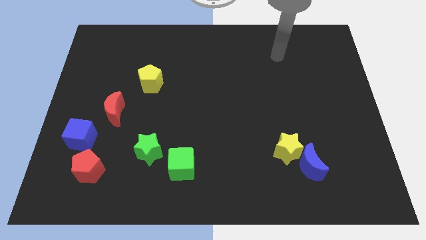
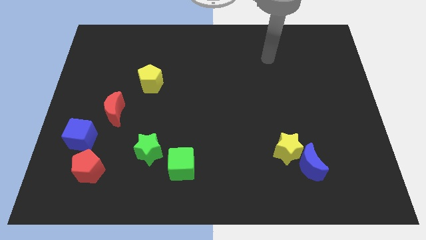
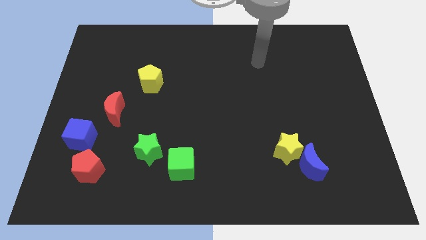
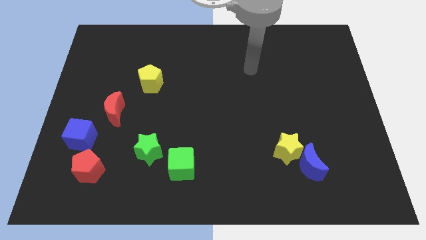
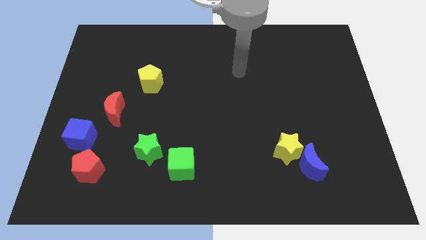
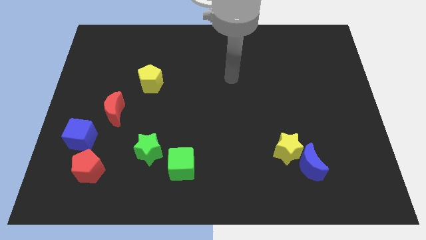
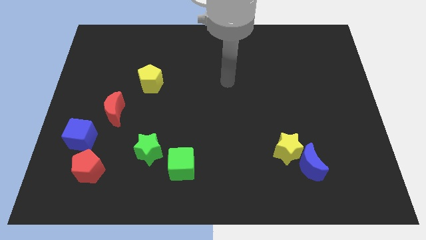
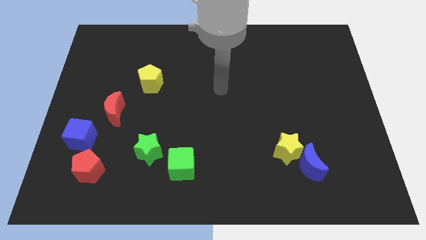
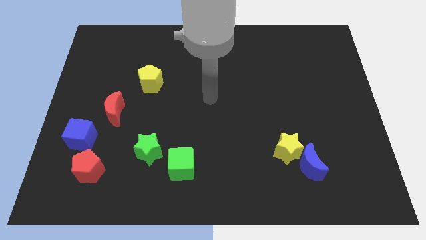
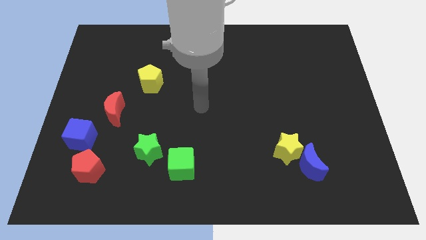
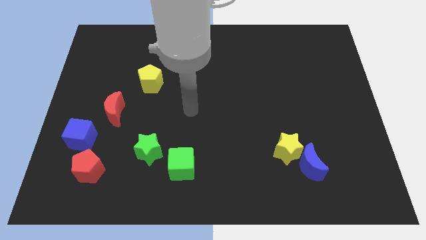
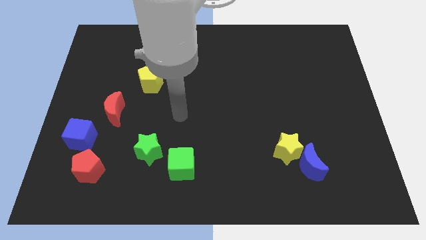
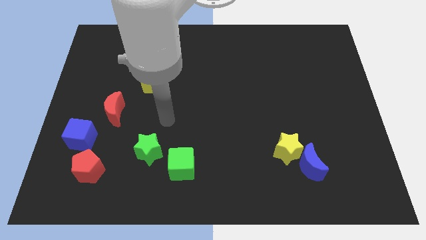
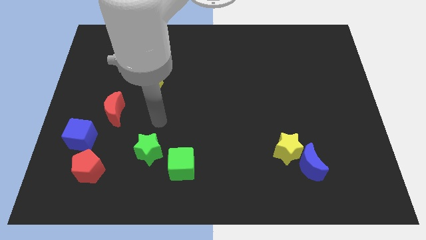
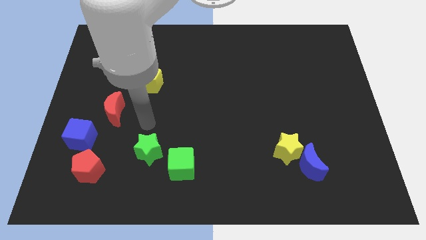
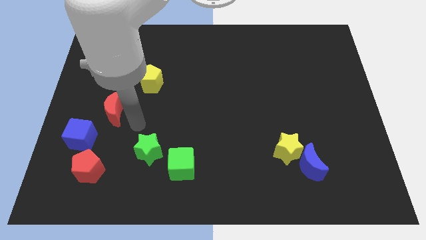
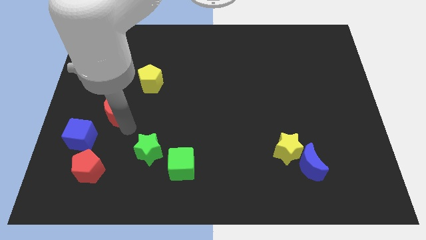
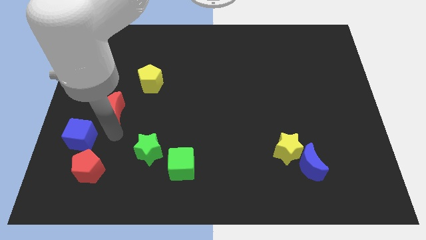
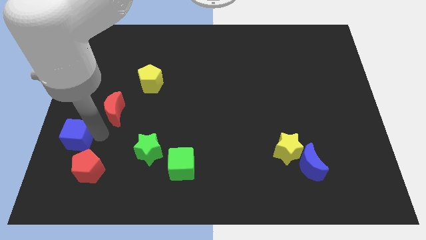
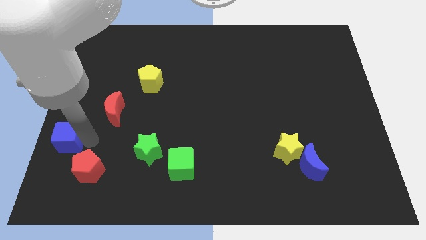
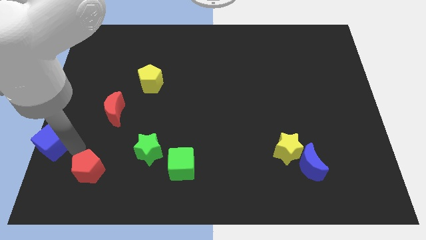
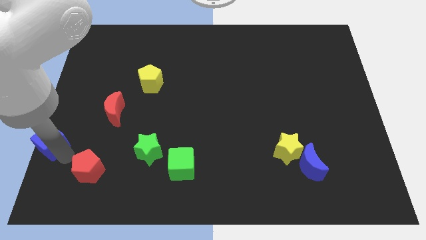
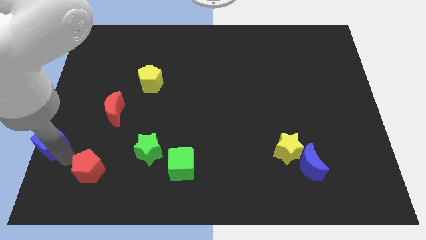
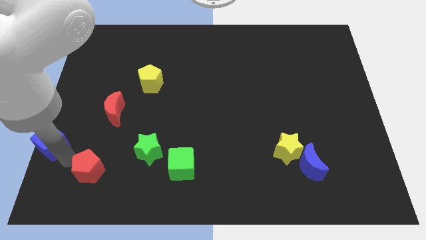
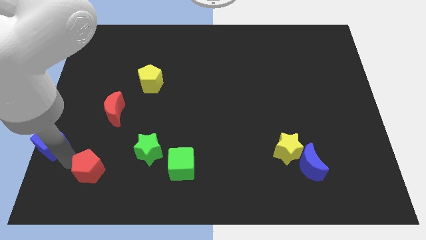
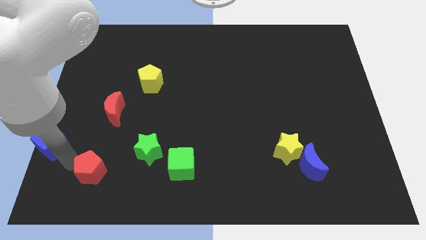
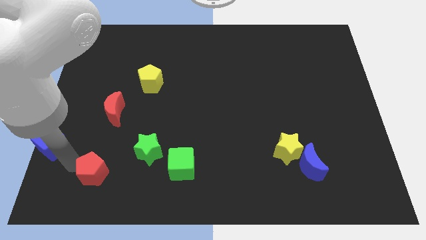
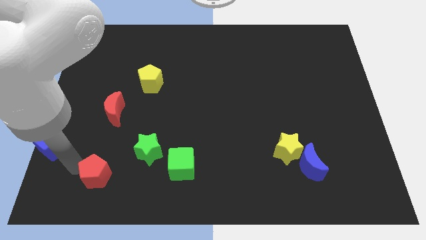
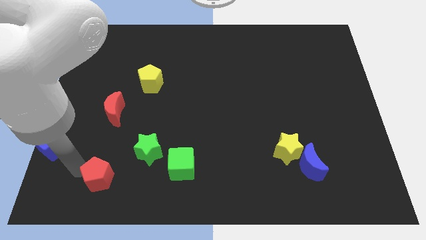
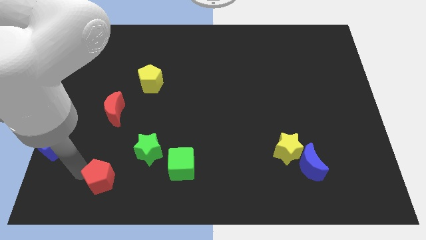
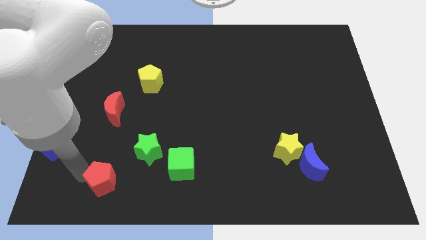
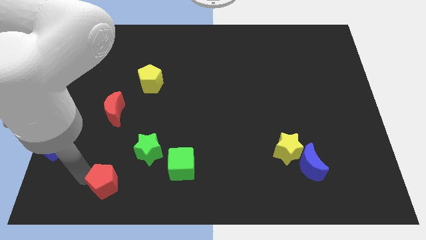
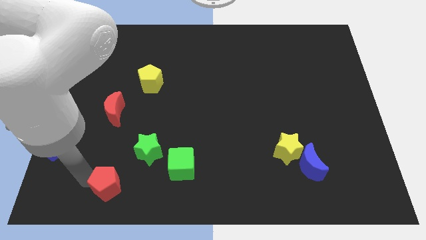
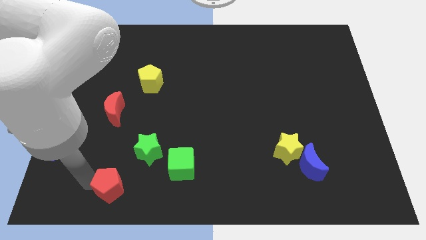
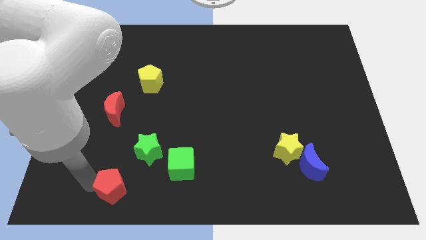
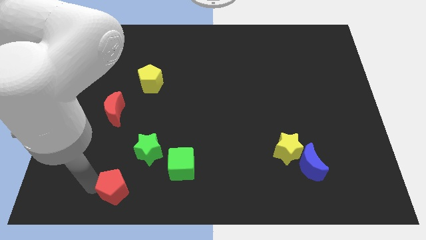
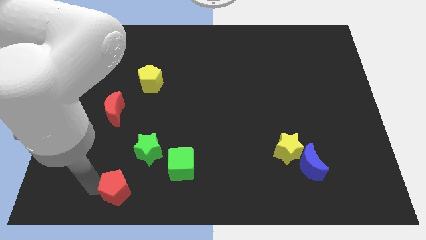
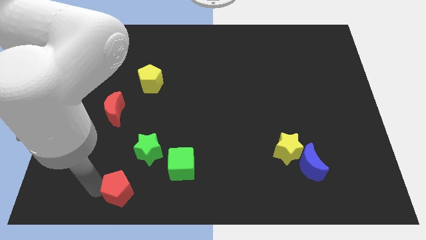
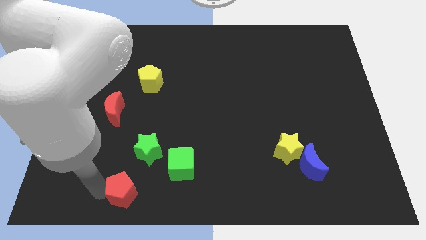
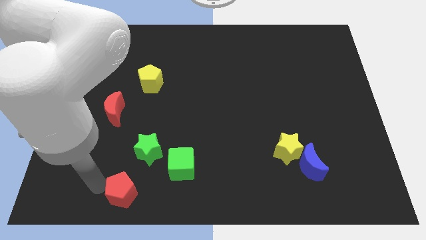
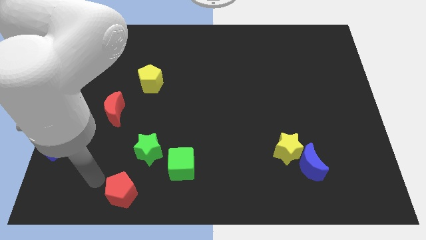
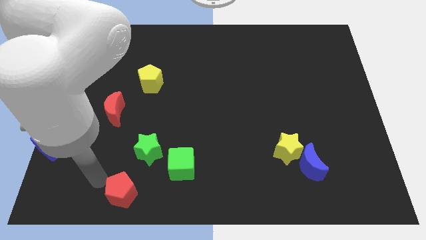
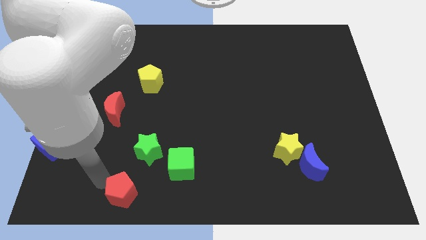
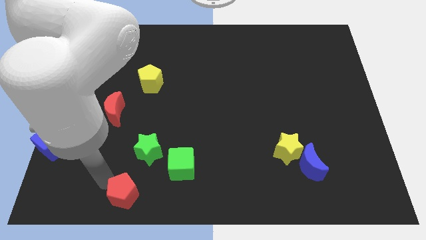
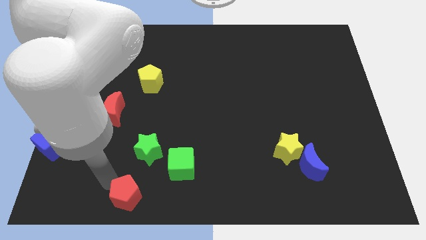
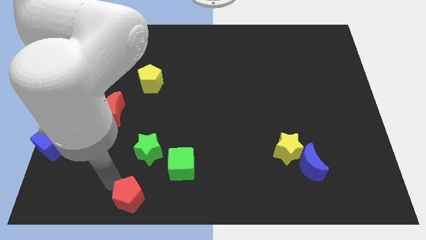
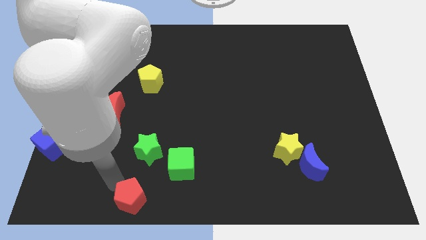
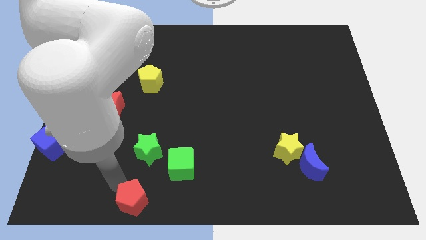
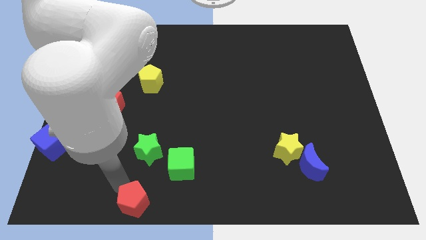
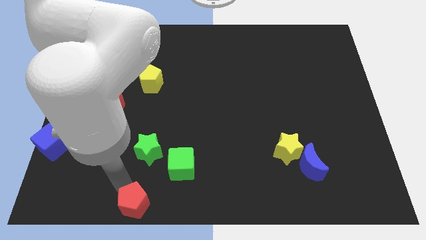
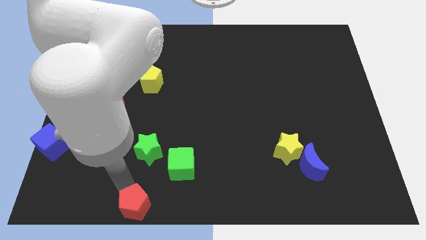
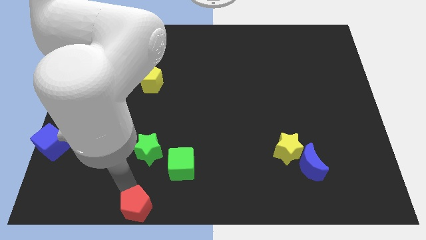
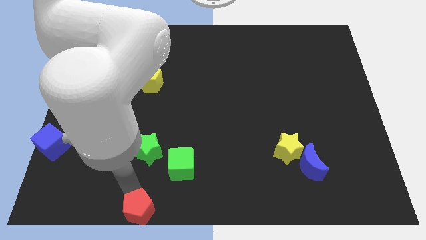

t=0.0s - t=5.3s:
put the red pentagon to the bottom side

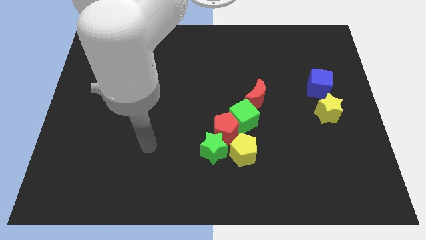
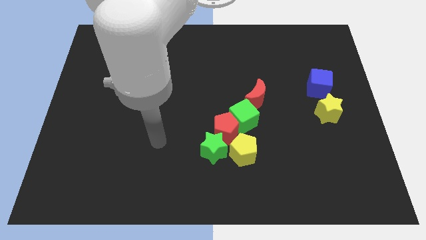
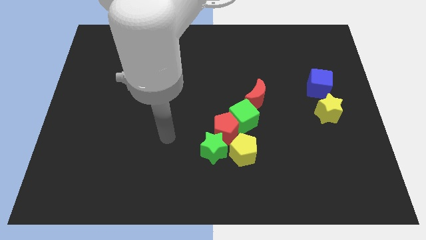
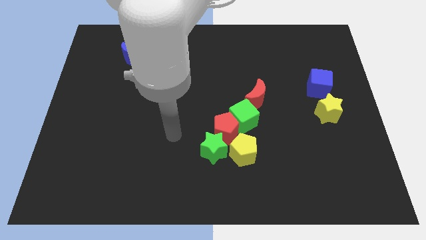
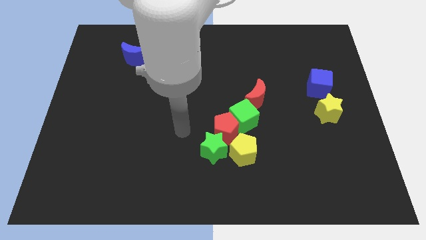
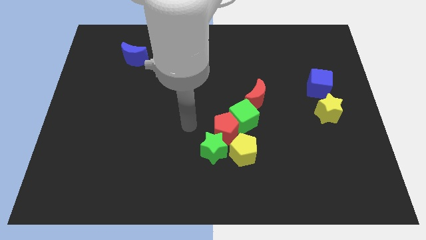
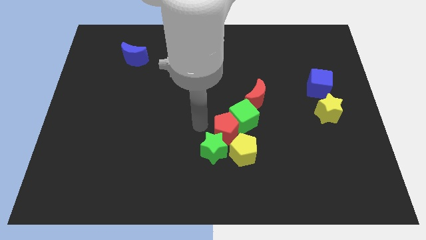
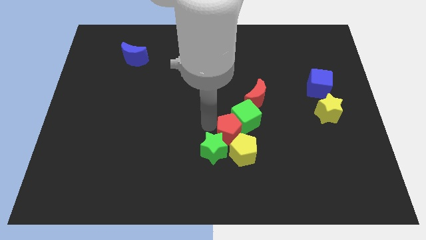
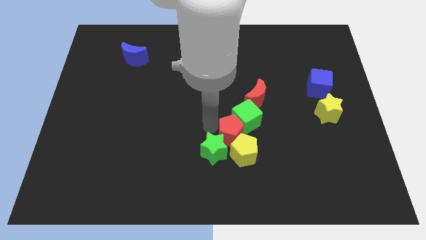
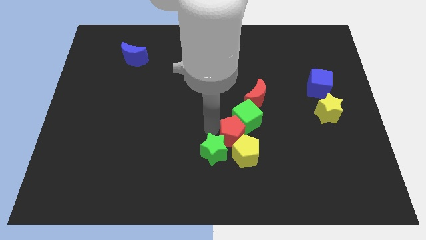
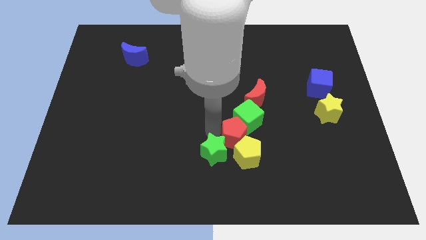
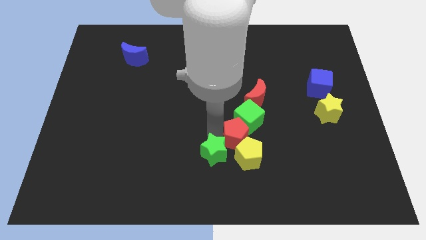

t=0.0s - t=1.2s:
put the green star to the bottom
